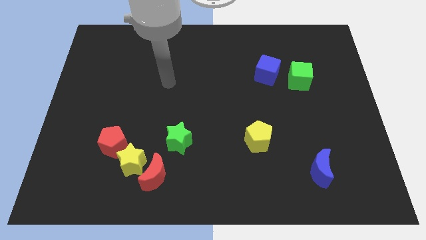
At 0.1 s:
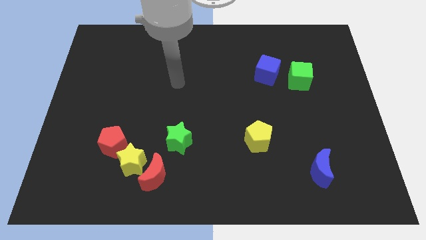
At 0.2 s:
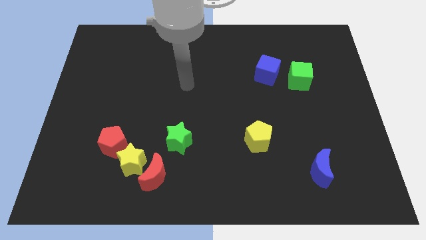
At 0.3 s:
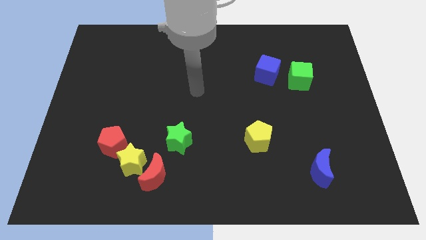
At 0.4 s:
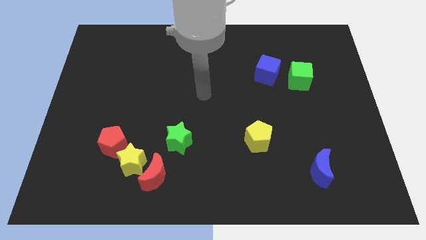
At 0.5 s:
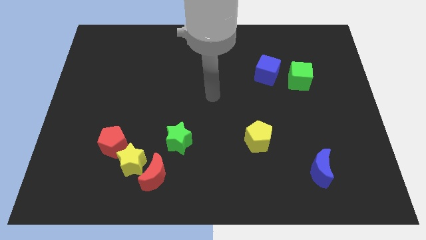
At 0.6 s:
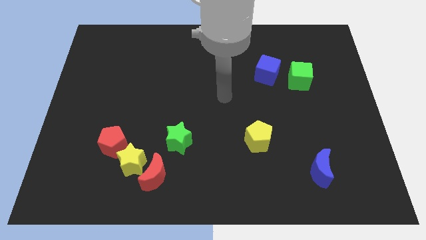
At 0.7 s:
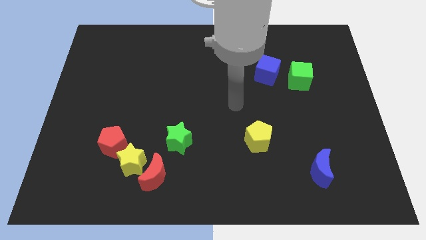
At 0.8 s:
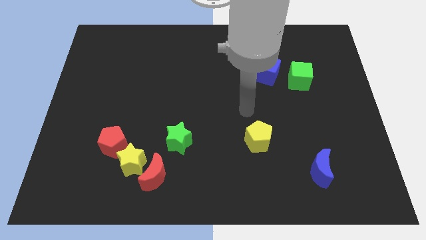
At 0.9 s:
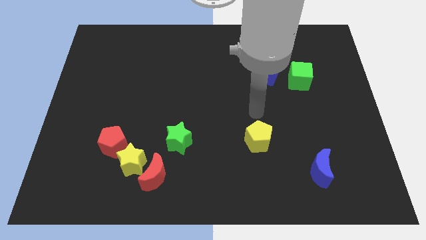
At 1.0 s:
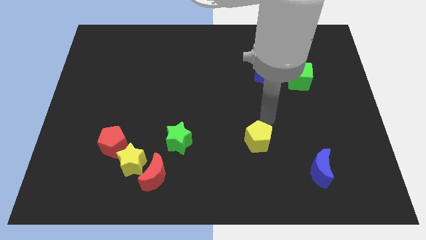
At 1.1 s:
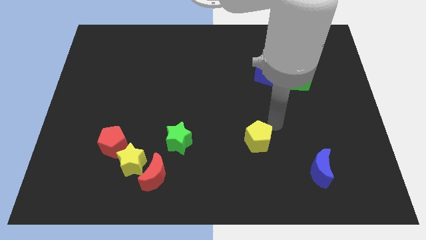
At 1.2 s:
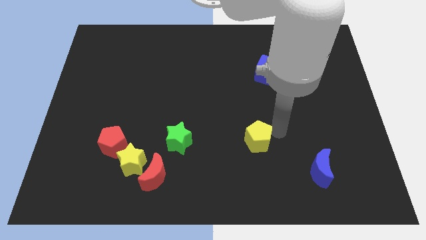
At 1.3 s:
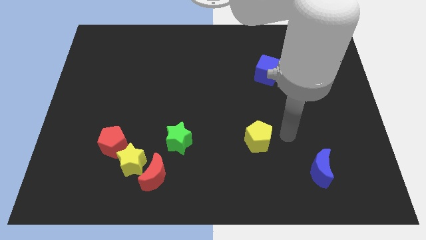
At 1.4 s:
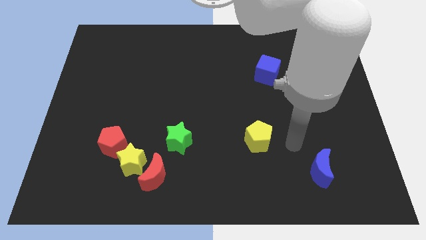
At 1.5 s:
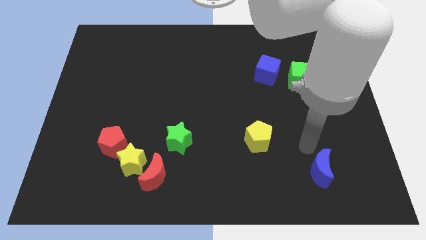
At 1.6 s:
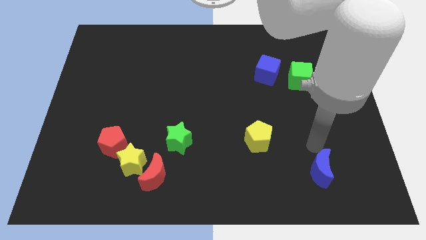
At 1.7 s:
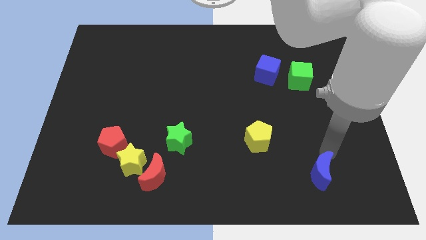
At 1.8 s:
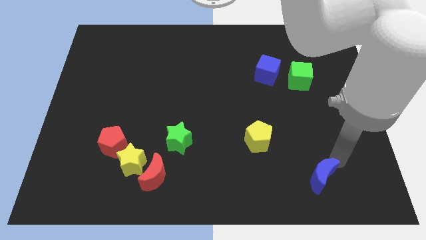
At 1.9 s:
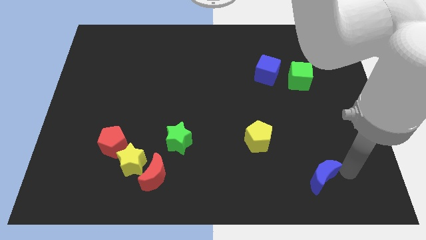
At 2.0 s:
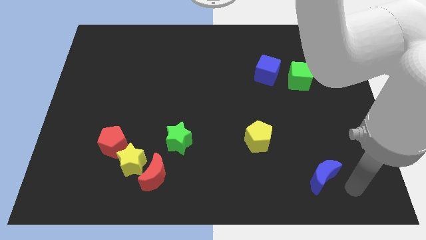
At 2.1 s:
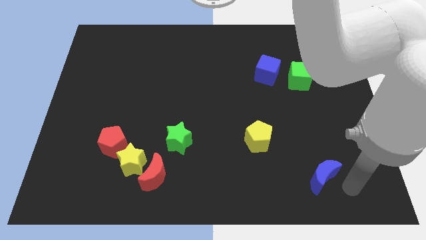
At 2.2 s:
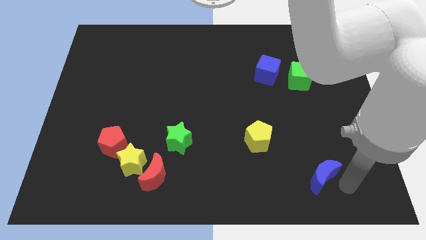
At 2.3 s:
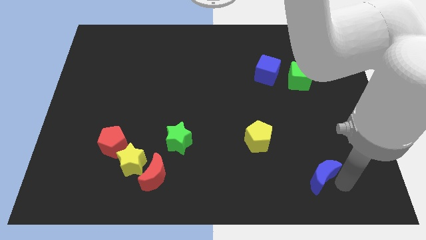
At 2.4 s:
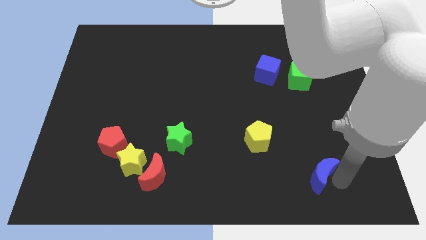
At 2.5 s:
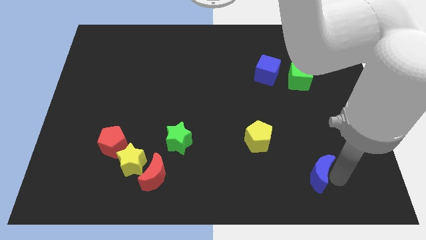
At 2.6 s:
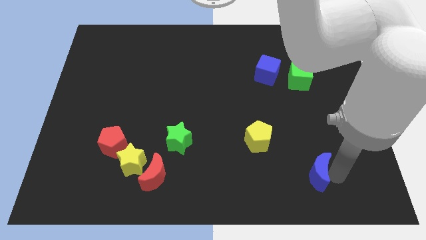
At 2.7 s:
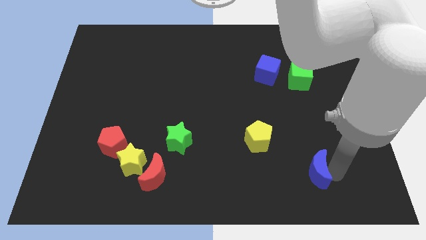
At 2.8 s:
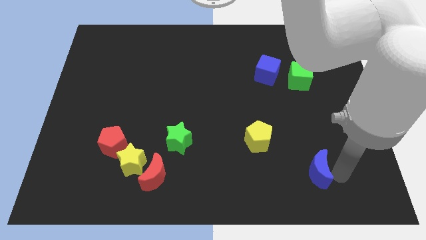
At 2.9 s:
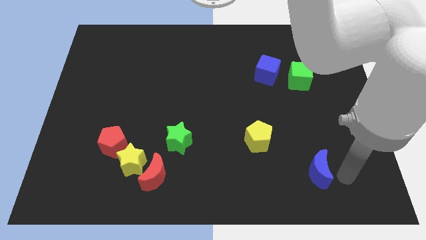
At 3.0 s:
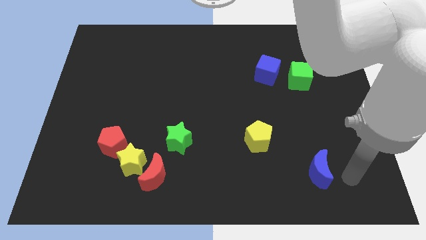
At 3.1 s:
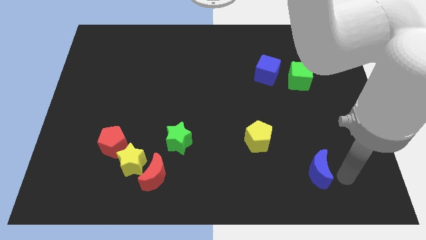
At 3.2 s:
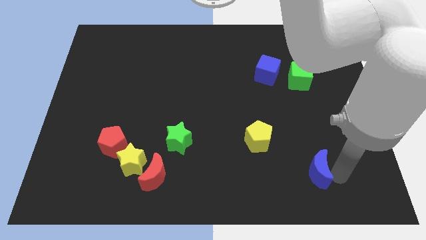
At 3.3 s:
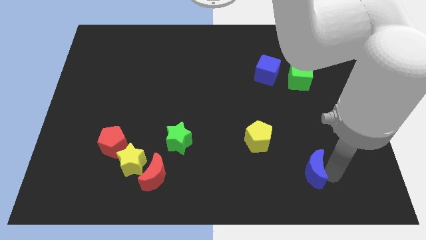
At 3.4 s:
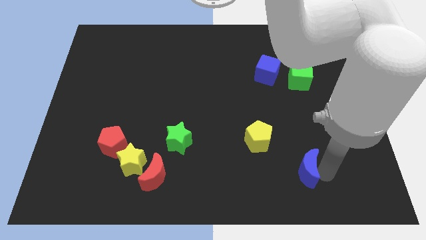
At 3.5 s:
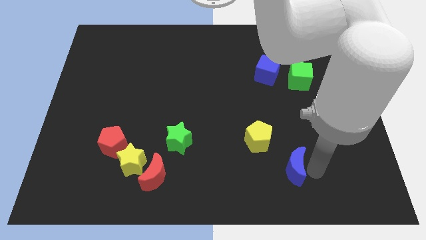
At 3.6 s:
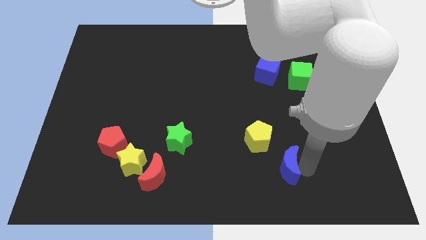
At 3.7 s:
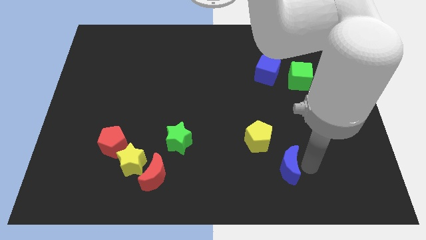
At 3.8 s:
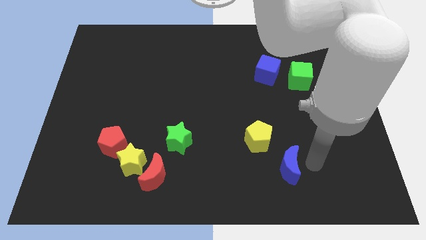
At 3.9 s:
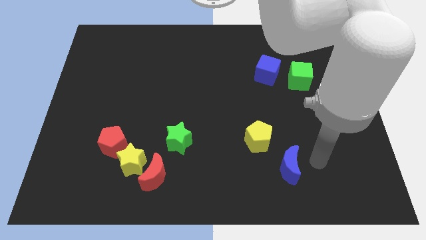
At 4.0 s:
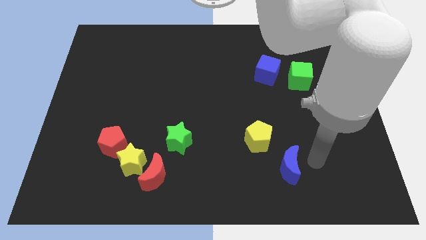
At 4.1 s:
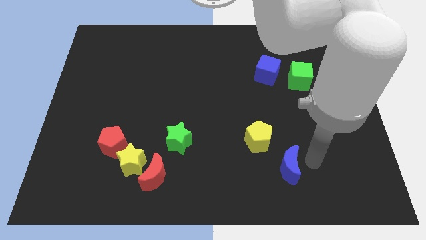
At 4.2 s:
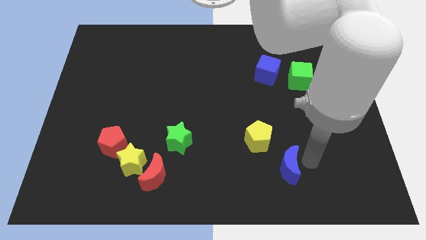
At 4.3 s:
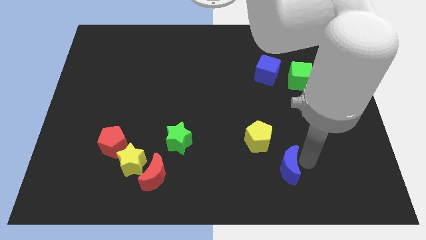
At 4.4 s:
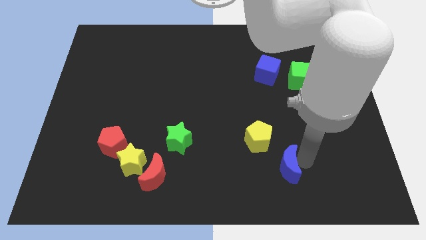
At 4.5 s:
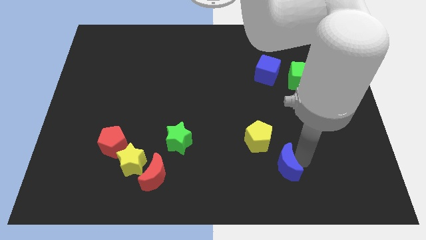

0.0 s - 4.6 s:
slightly move the blue moon to the left

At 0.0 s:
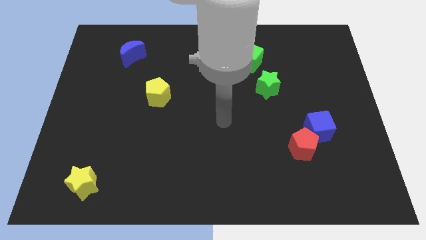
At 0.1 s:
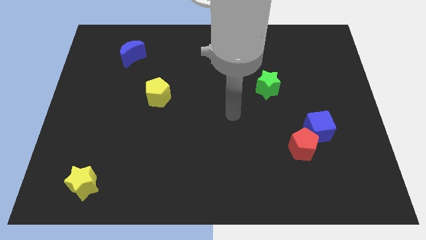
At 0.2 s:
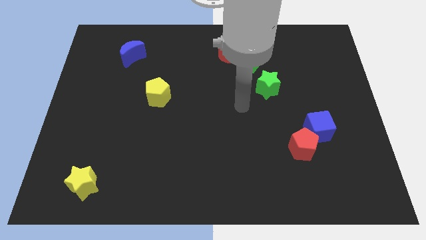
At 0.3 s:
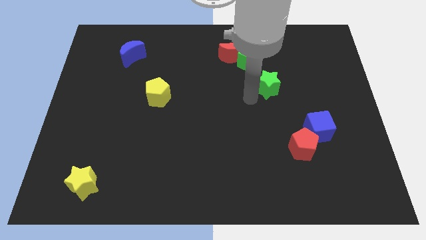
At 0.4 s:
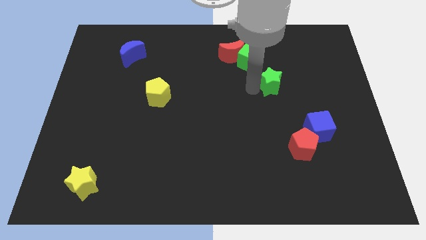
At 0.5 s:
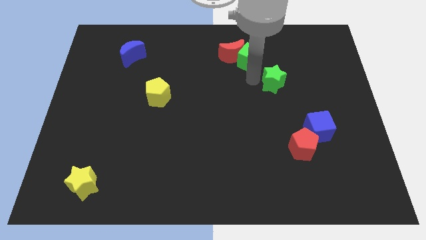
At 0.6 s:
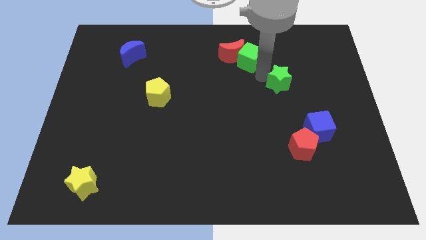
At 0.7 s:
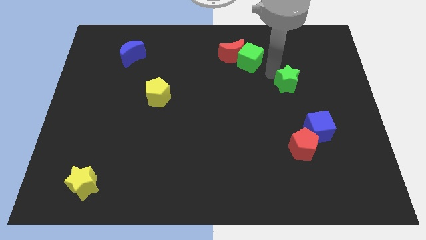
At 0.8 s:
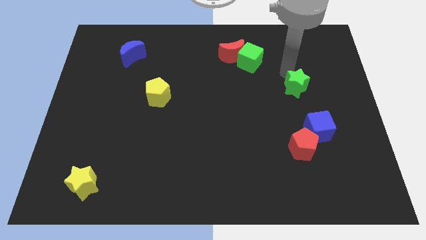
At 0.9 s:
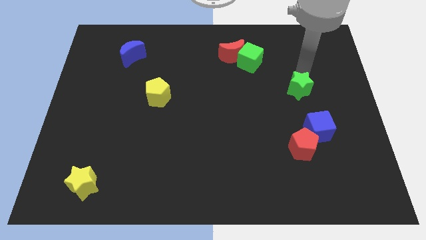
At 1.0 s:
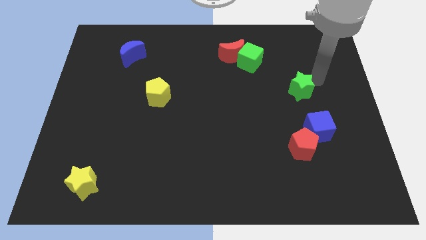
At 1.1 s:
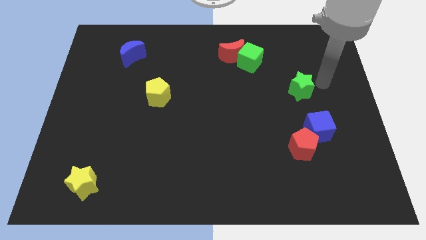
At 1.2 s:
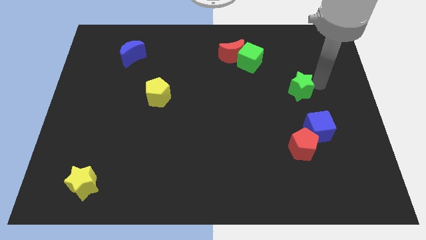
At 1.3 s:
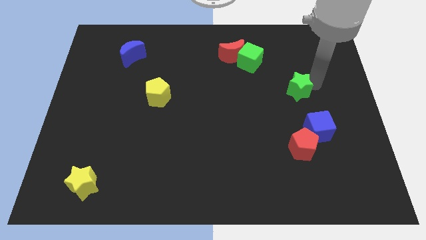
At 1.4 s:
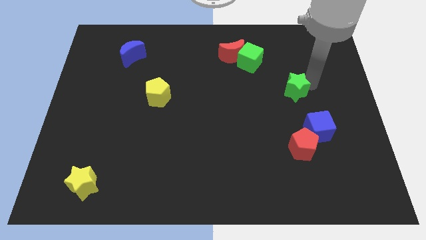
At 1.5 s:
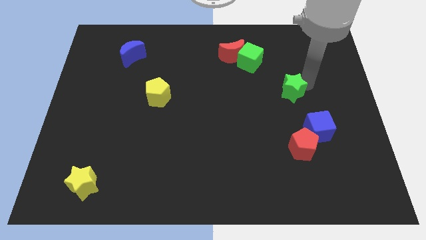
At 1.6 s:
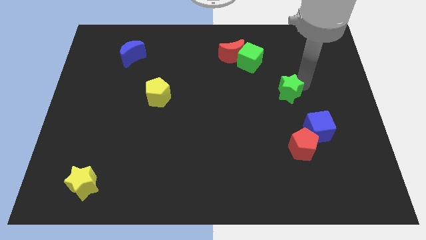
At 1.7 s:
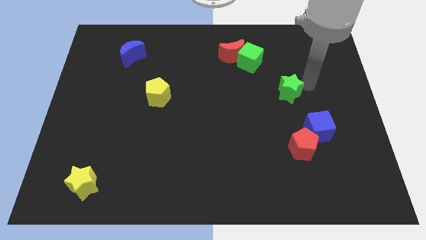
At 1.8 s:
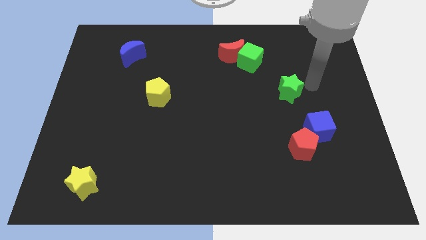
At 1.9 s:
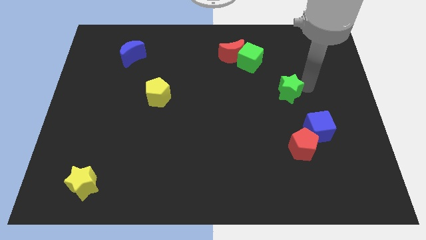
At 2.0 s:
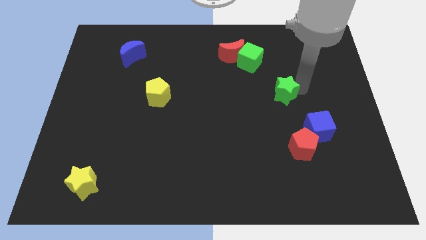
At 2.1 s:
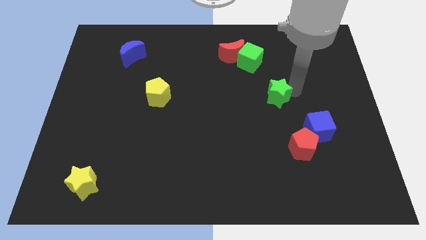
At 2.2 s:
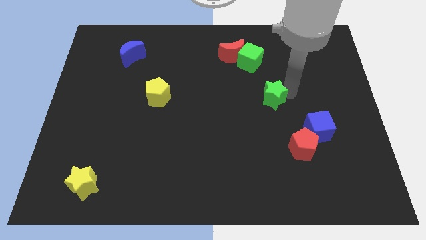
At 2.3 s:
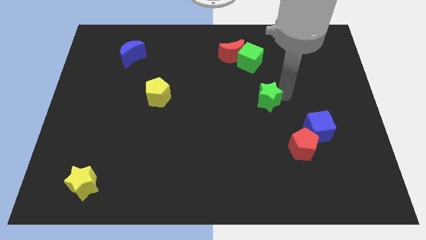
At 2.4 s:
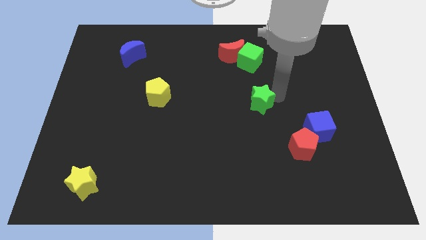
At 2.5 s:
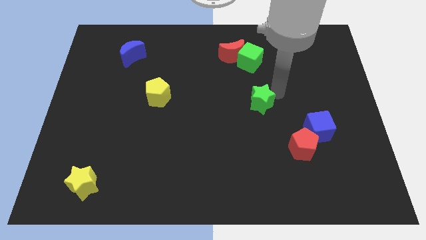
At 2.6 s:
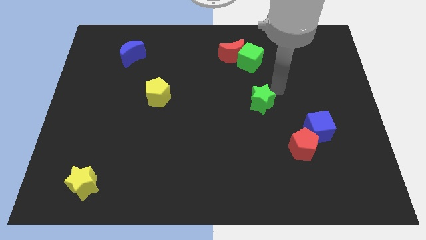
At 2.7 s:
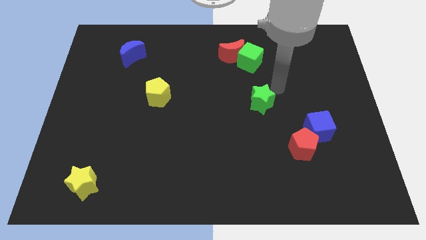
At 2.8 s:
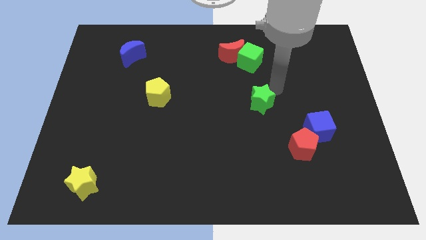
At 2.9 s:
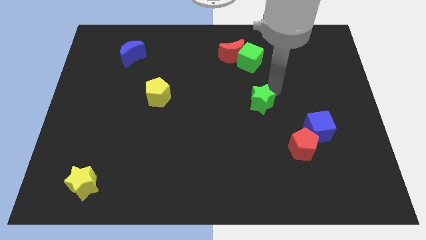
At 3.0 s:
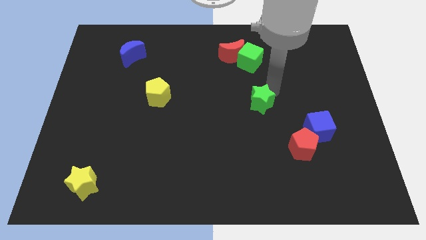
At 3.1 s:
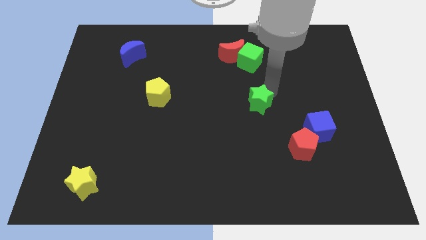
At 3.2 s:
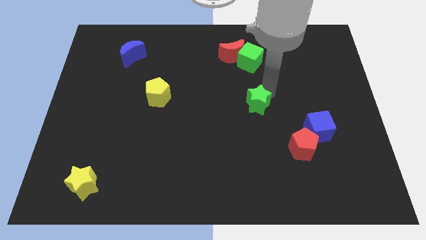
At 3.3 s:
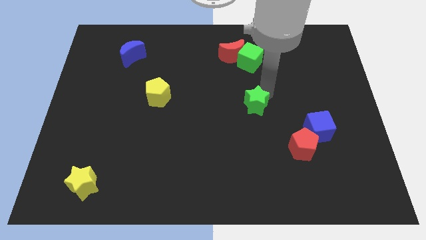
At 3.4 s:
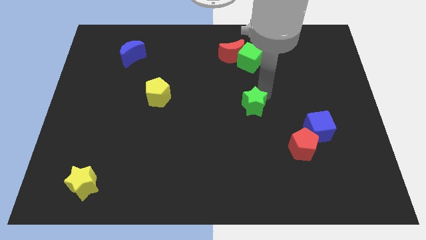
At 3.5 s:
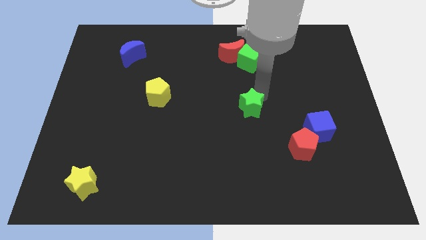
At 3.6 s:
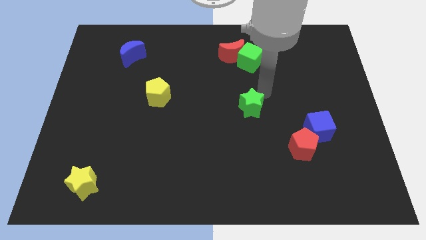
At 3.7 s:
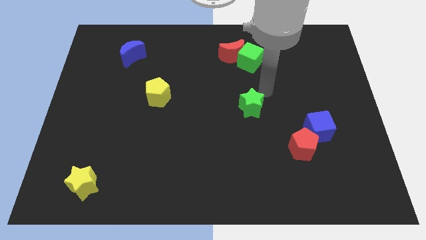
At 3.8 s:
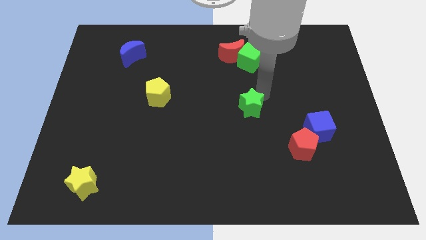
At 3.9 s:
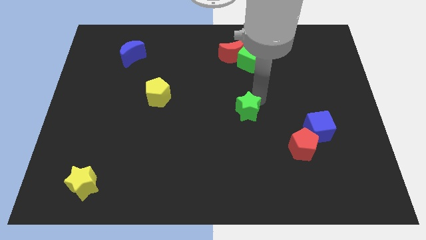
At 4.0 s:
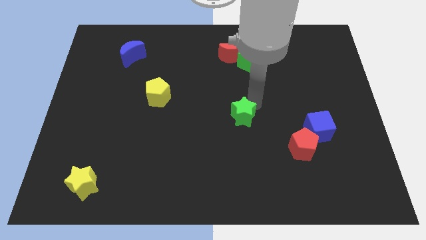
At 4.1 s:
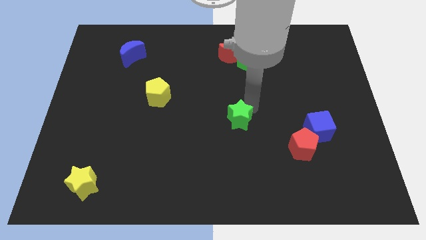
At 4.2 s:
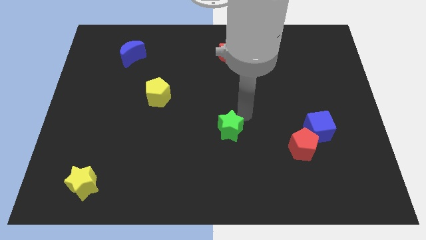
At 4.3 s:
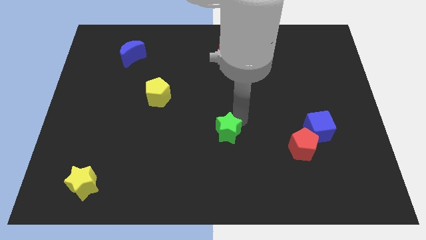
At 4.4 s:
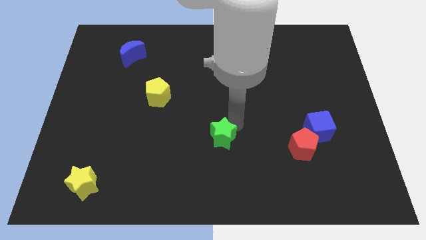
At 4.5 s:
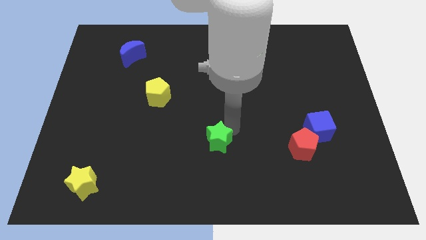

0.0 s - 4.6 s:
slide the green star down and to the left diagonally
